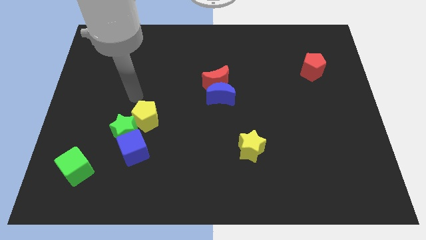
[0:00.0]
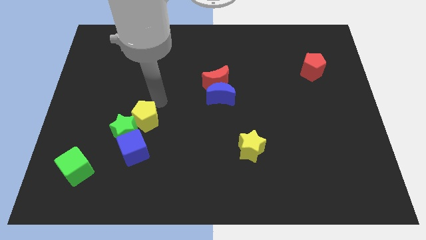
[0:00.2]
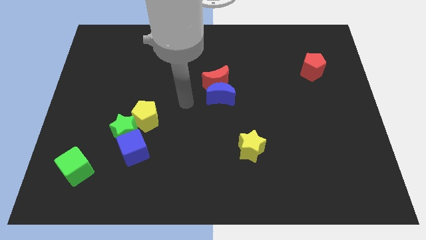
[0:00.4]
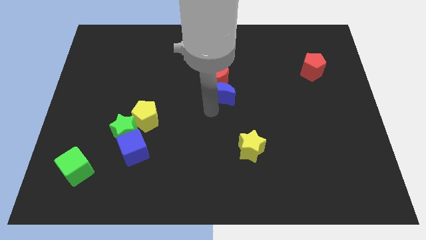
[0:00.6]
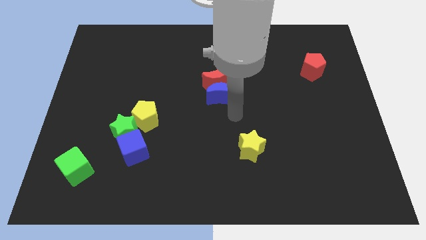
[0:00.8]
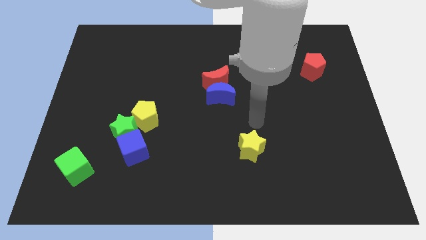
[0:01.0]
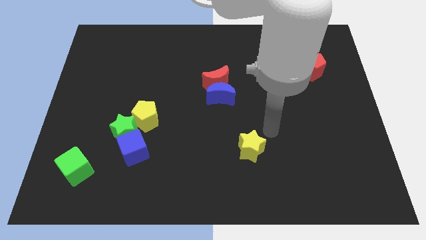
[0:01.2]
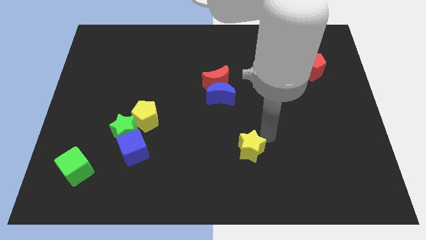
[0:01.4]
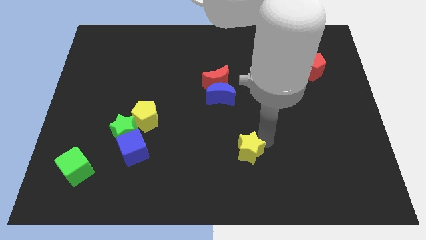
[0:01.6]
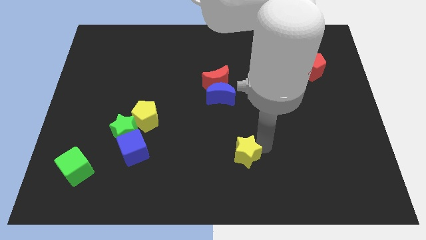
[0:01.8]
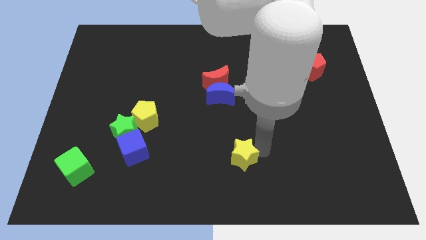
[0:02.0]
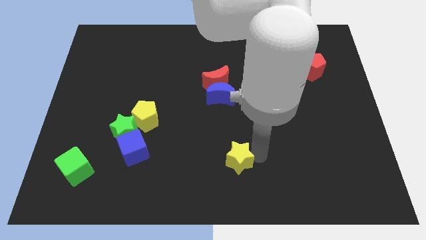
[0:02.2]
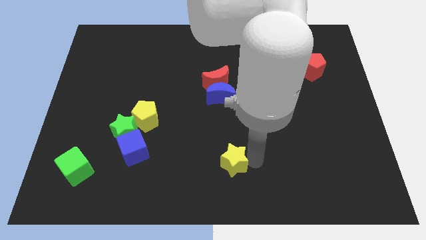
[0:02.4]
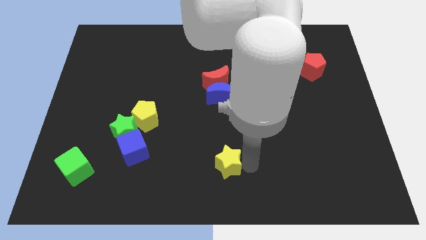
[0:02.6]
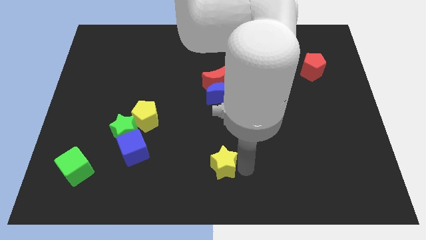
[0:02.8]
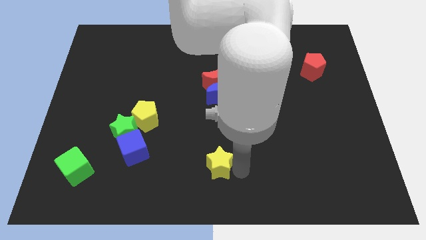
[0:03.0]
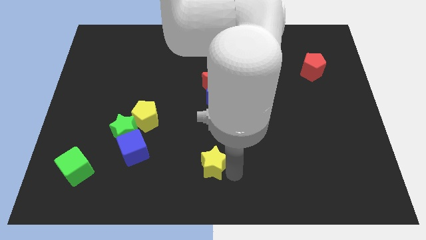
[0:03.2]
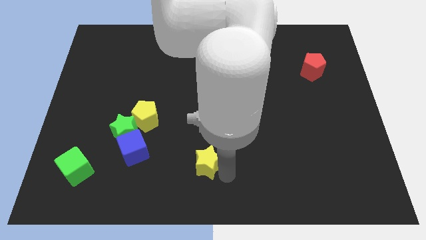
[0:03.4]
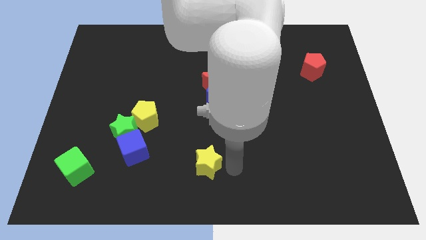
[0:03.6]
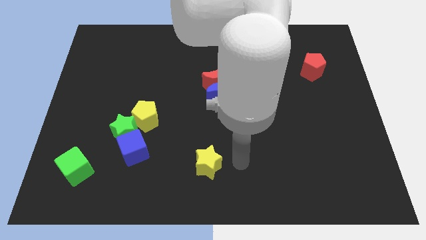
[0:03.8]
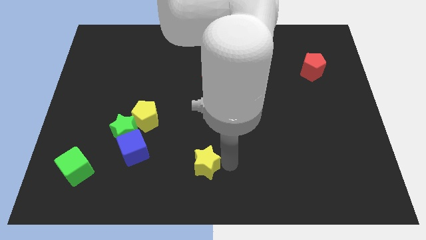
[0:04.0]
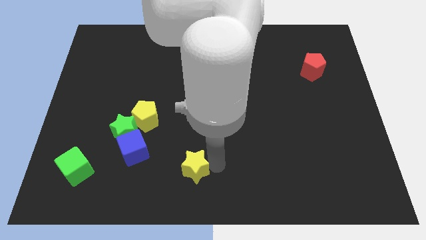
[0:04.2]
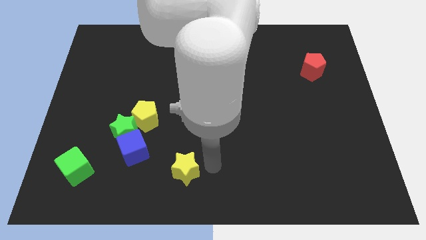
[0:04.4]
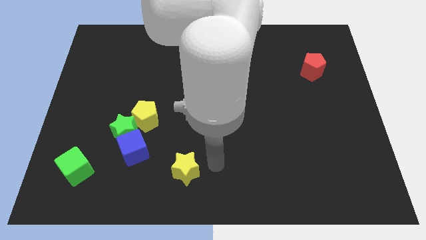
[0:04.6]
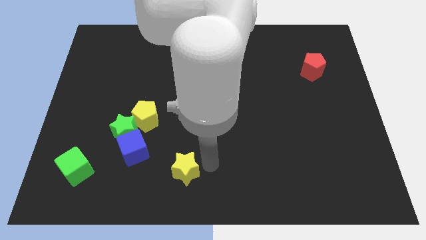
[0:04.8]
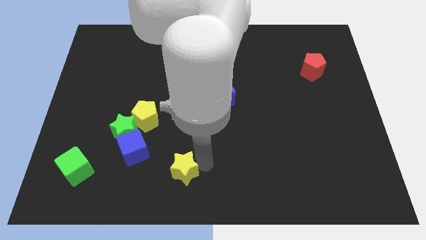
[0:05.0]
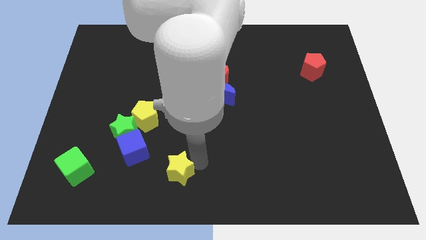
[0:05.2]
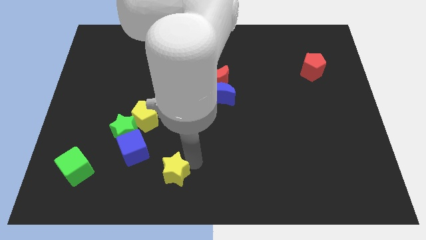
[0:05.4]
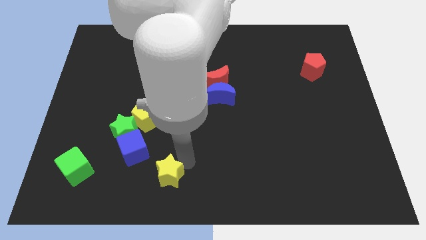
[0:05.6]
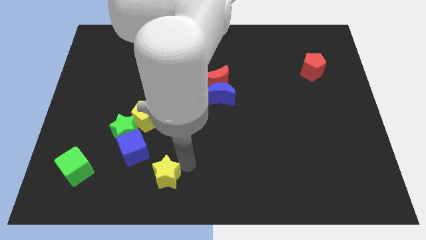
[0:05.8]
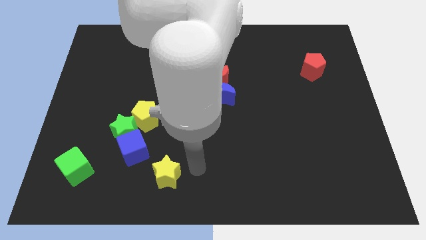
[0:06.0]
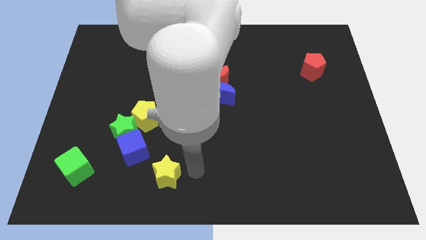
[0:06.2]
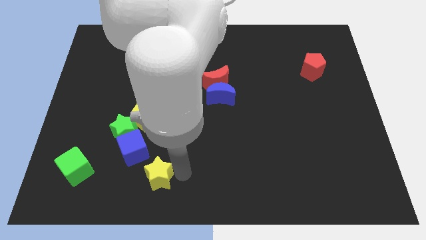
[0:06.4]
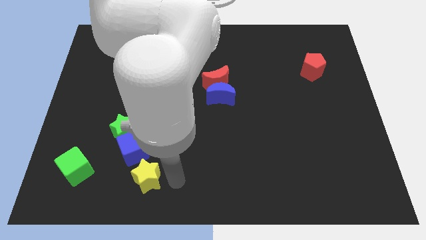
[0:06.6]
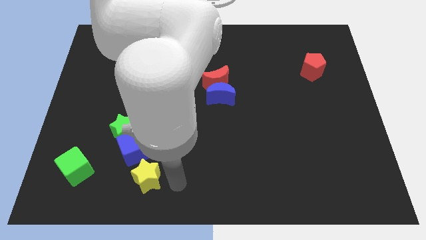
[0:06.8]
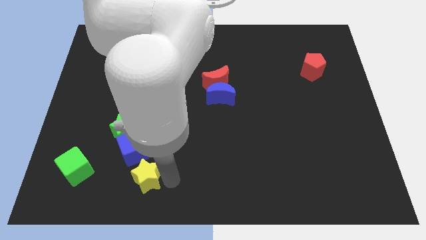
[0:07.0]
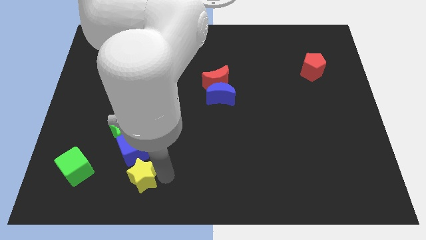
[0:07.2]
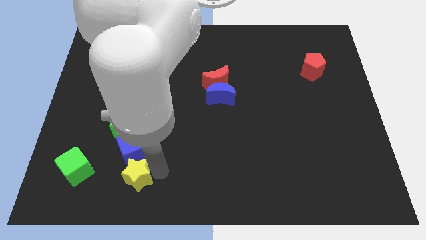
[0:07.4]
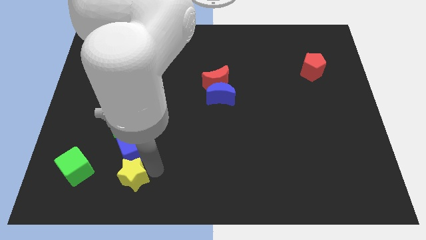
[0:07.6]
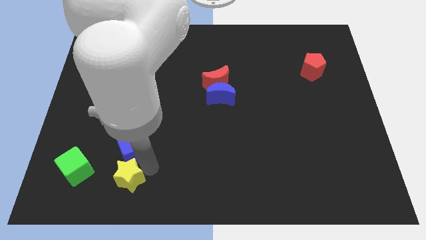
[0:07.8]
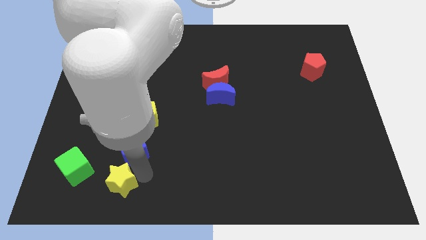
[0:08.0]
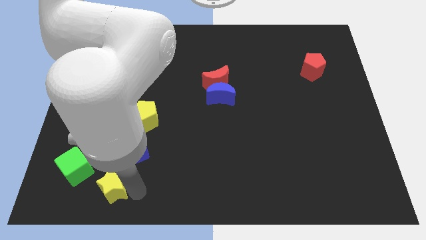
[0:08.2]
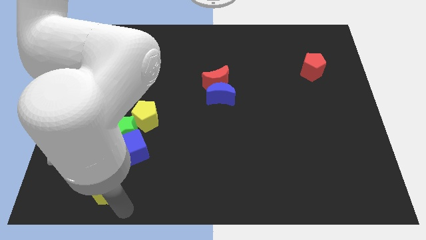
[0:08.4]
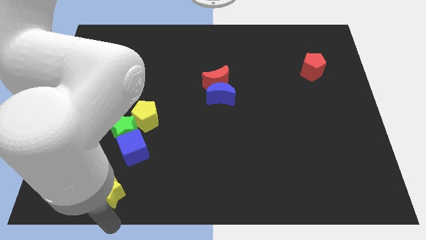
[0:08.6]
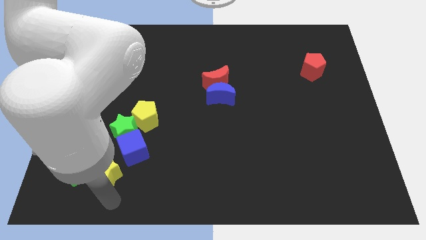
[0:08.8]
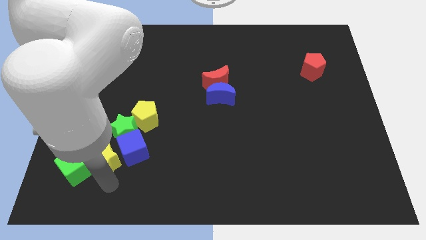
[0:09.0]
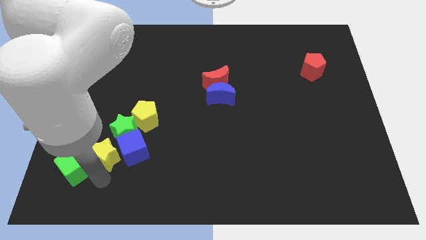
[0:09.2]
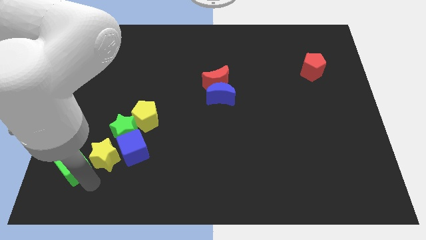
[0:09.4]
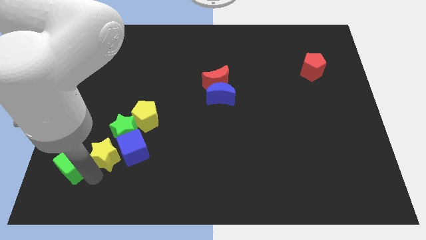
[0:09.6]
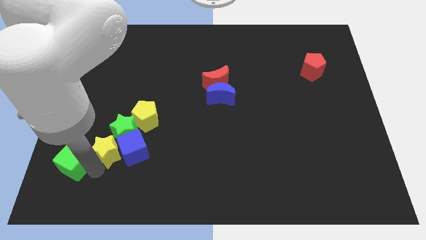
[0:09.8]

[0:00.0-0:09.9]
push the yellow star close to the green star

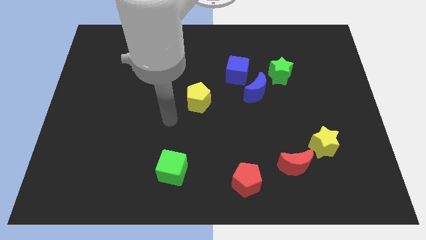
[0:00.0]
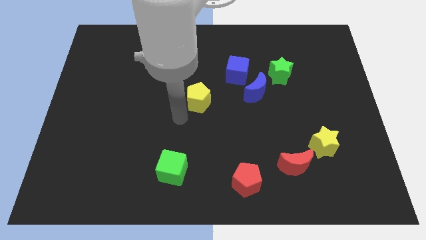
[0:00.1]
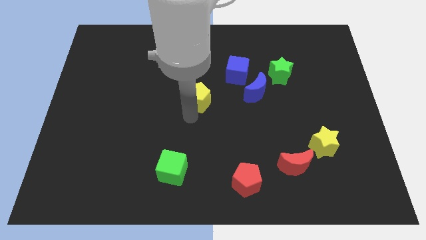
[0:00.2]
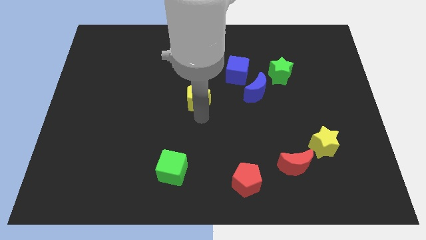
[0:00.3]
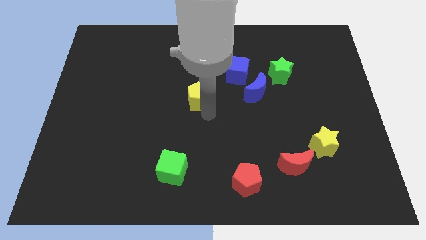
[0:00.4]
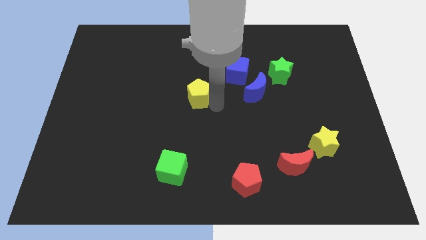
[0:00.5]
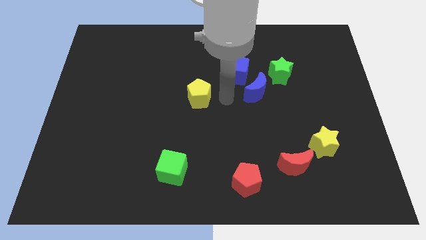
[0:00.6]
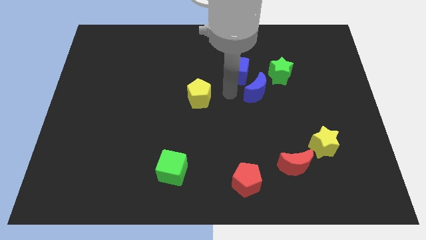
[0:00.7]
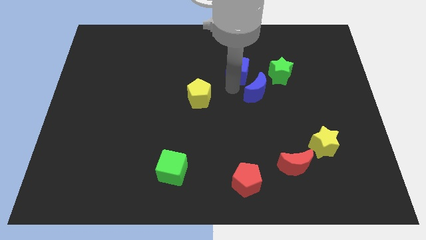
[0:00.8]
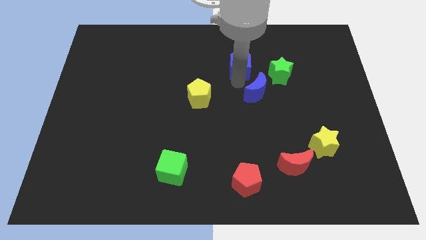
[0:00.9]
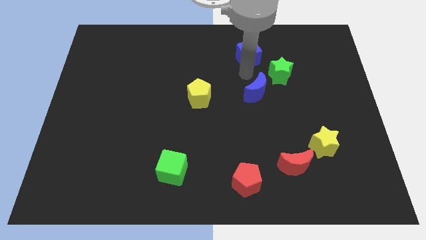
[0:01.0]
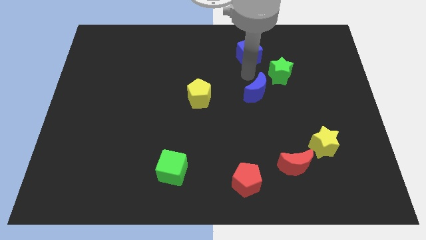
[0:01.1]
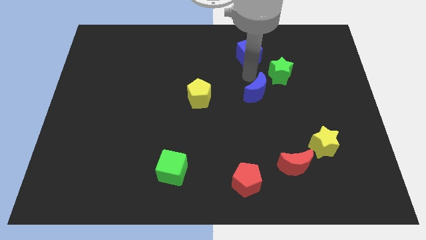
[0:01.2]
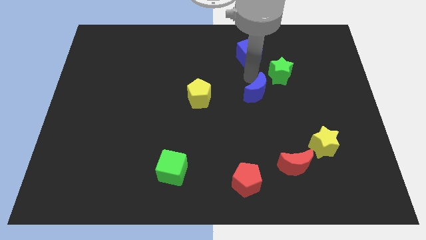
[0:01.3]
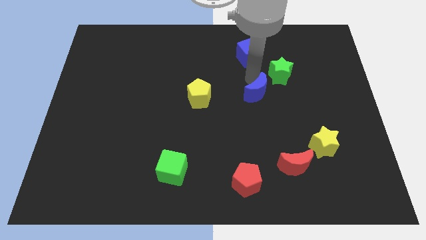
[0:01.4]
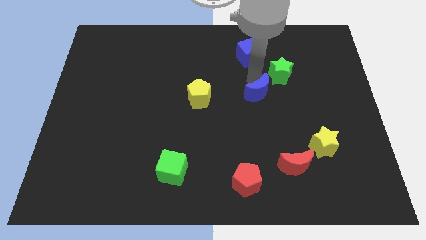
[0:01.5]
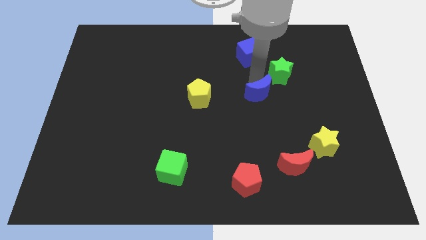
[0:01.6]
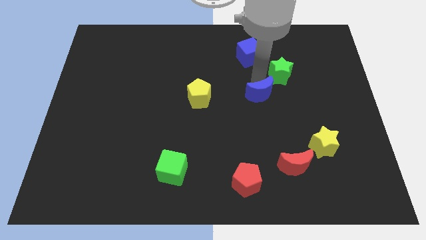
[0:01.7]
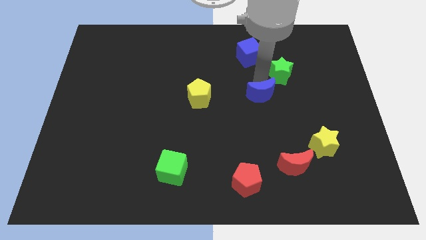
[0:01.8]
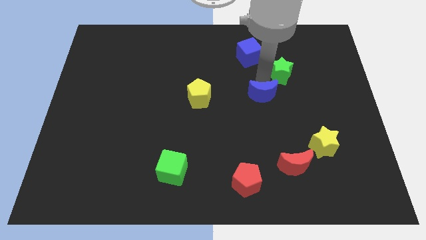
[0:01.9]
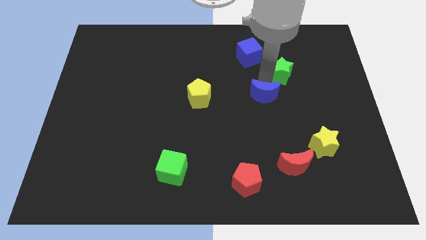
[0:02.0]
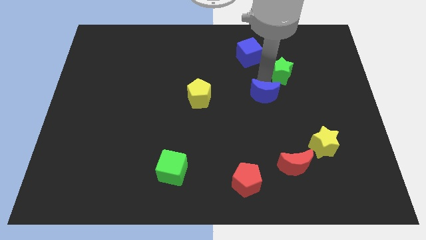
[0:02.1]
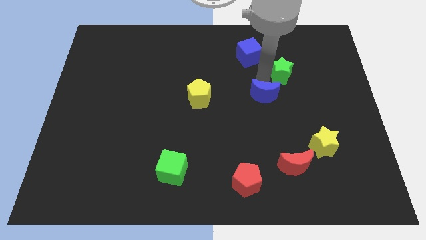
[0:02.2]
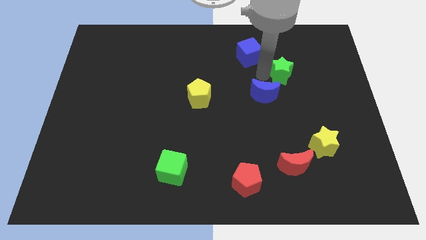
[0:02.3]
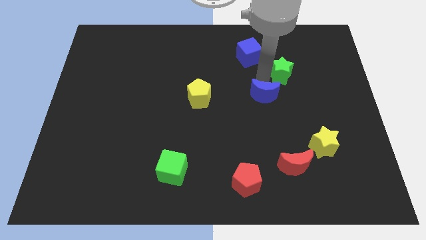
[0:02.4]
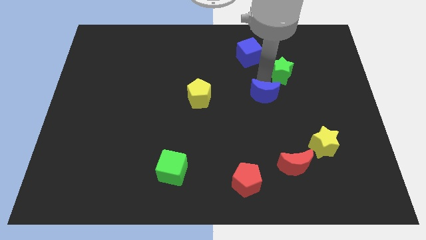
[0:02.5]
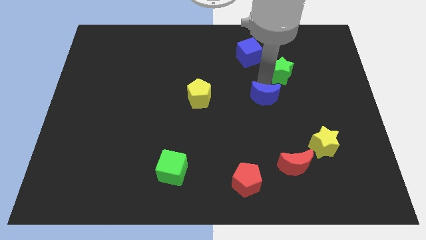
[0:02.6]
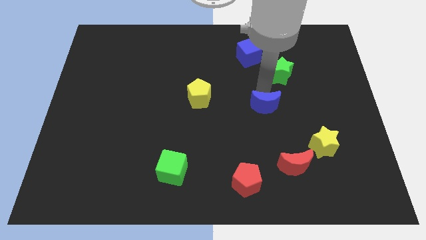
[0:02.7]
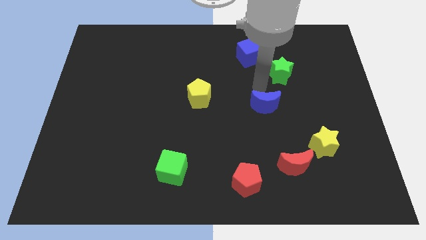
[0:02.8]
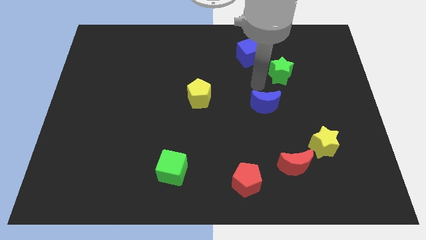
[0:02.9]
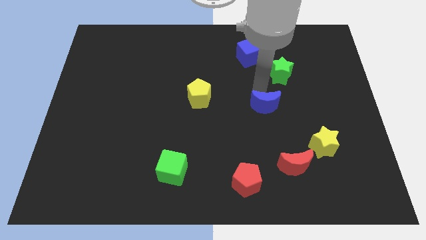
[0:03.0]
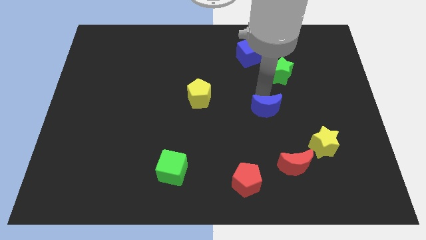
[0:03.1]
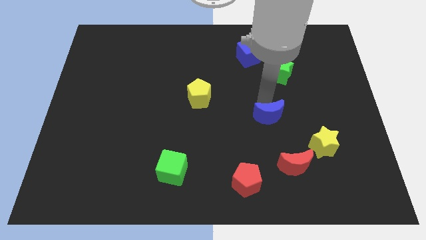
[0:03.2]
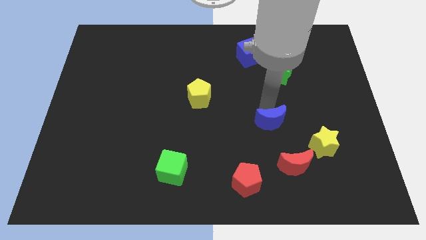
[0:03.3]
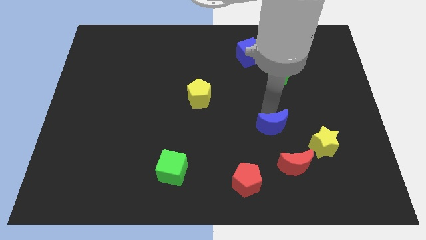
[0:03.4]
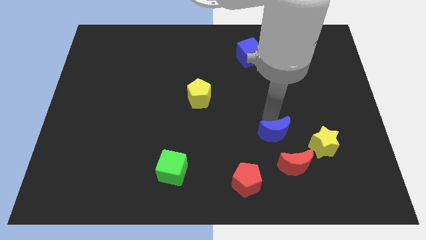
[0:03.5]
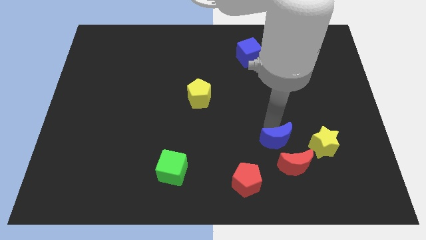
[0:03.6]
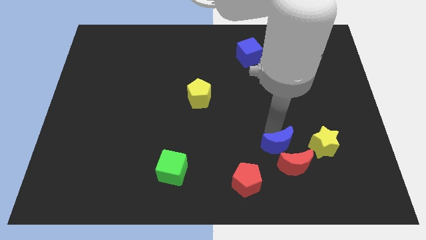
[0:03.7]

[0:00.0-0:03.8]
push the blue moon towards the red moon
